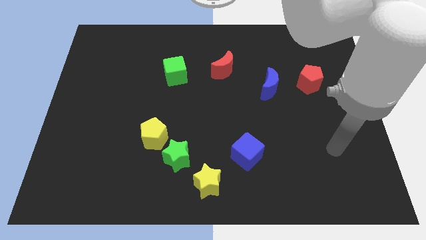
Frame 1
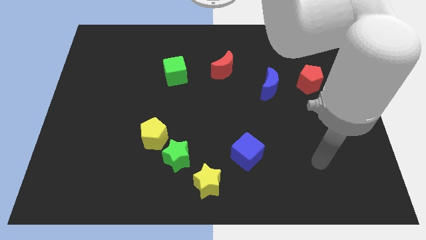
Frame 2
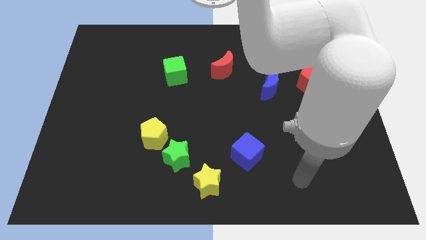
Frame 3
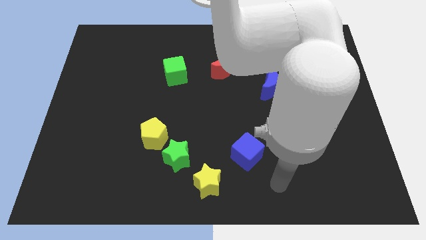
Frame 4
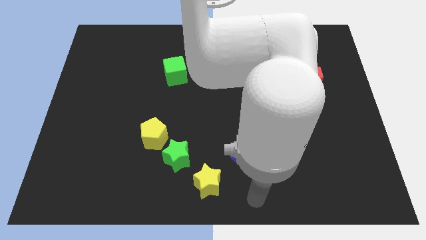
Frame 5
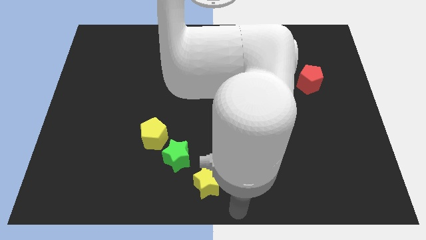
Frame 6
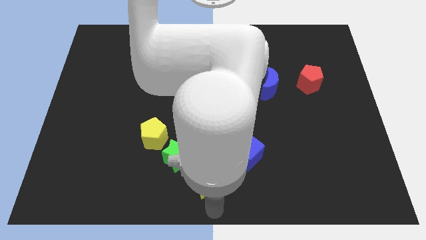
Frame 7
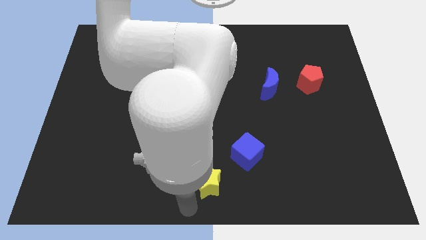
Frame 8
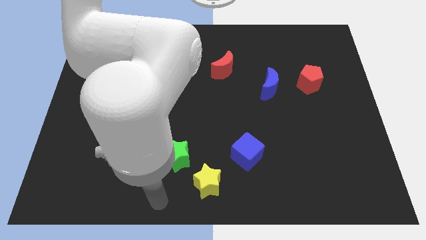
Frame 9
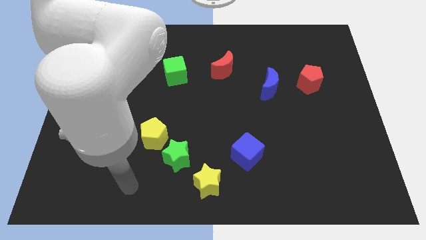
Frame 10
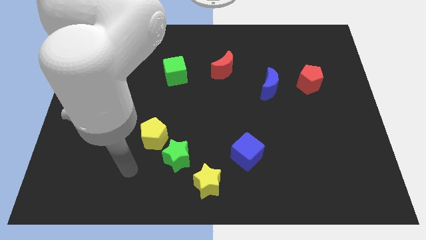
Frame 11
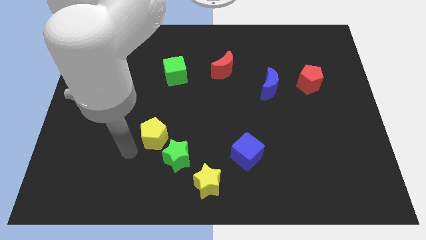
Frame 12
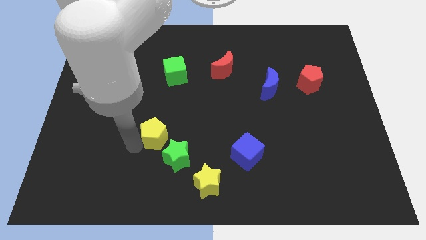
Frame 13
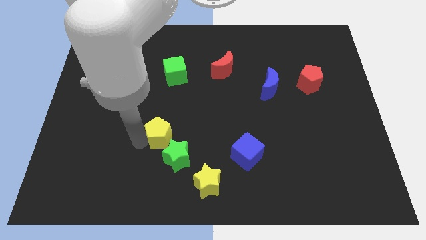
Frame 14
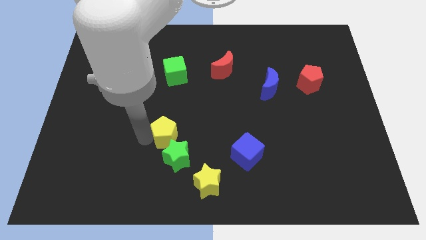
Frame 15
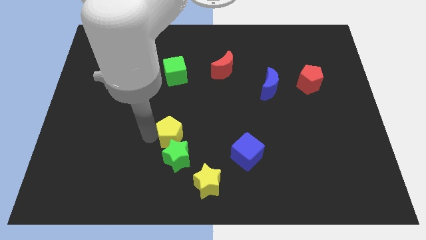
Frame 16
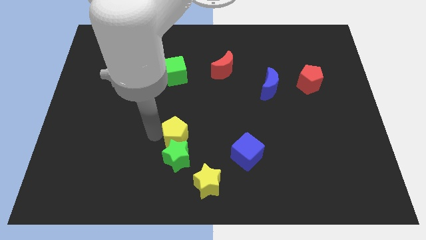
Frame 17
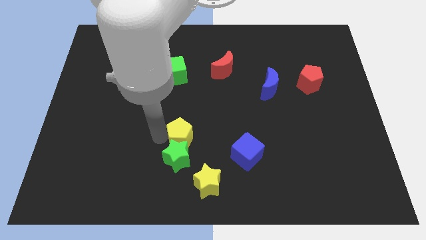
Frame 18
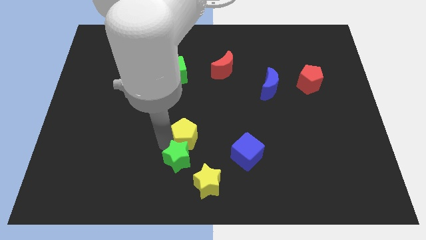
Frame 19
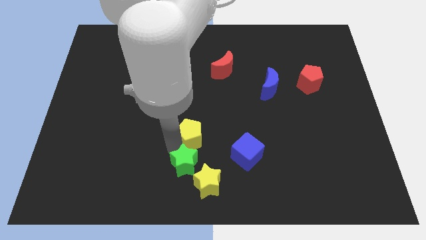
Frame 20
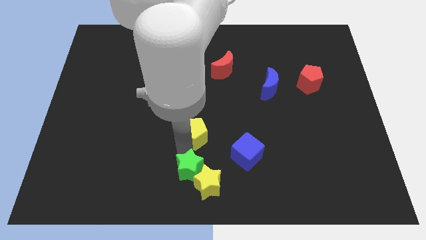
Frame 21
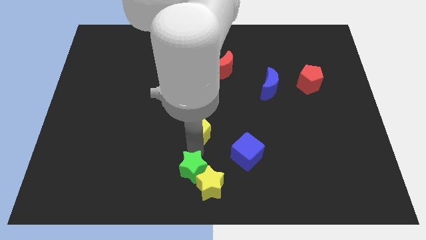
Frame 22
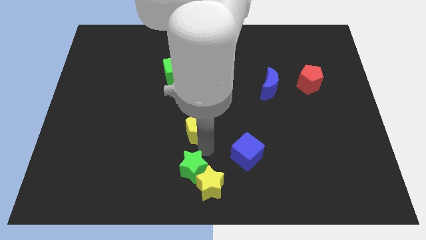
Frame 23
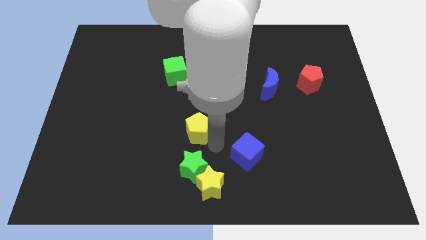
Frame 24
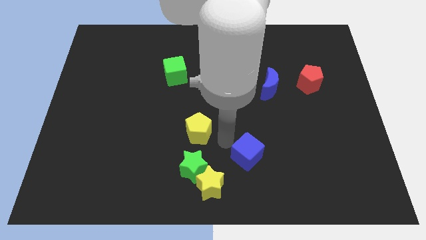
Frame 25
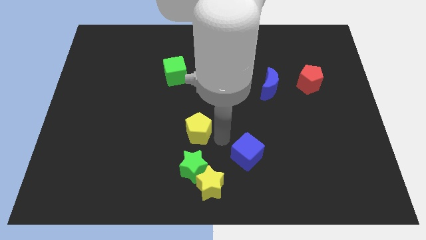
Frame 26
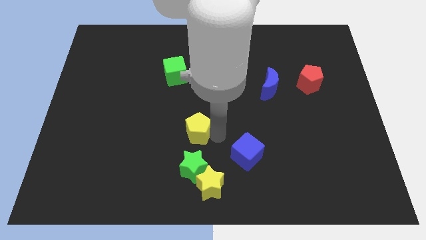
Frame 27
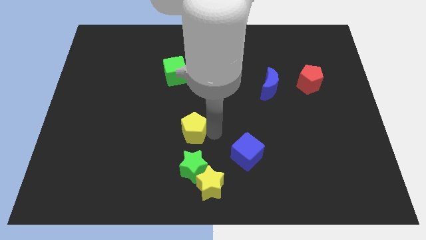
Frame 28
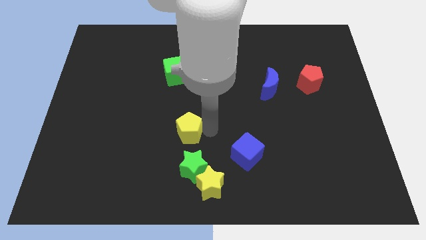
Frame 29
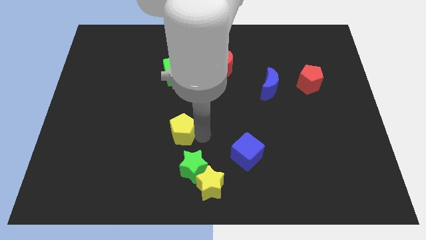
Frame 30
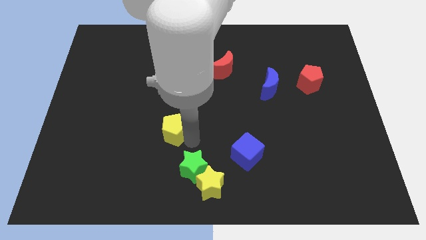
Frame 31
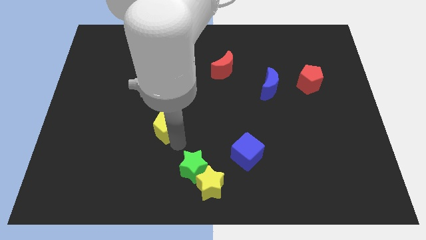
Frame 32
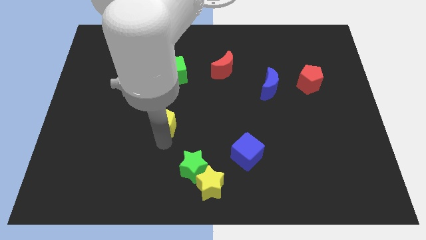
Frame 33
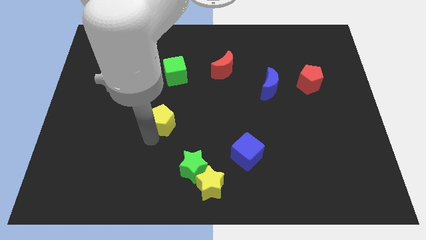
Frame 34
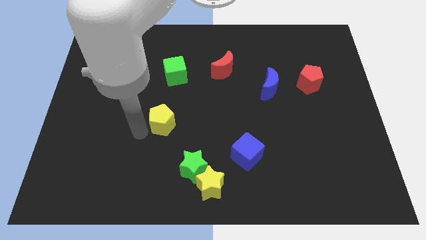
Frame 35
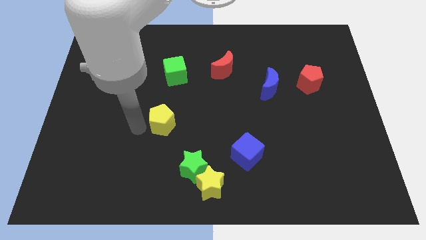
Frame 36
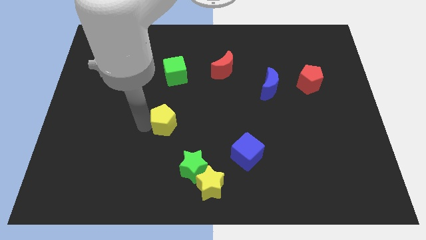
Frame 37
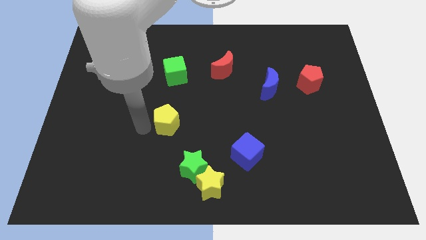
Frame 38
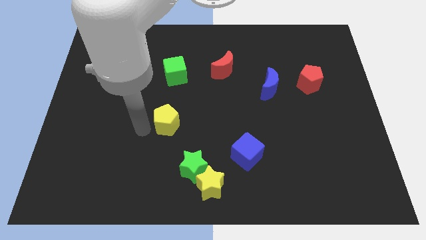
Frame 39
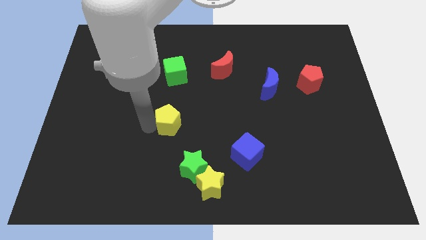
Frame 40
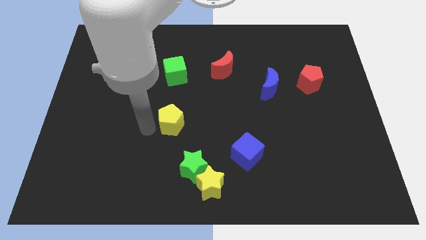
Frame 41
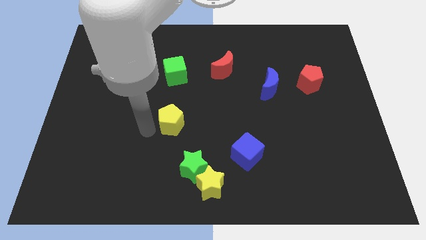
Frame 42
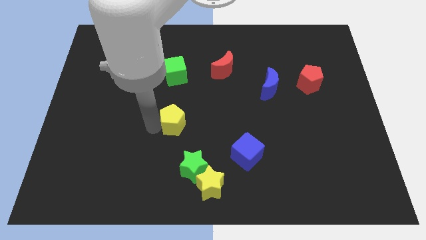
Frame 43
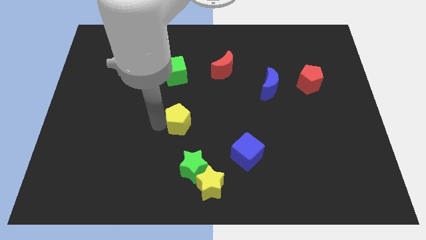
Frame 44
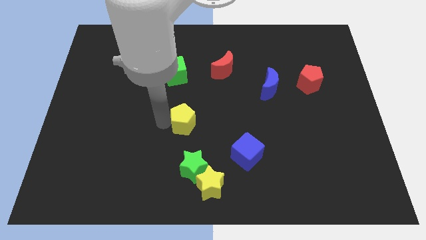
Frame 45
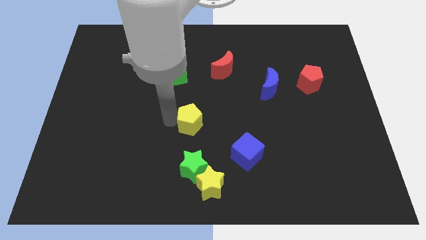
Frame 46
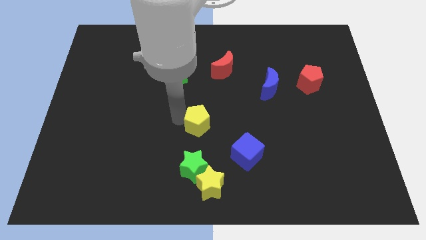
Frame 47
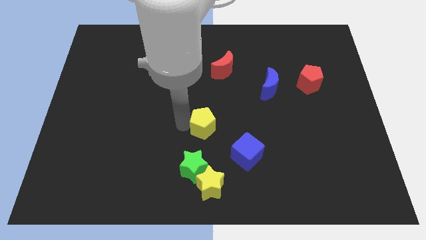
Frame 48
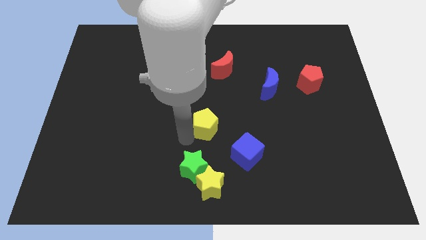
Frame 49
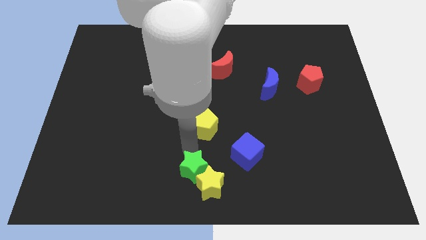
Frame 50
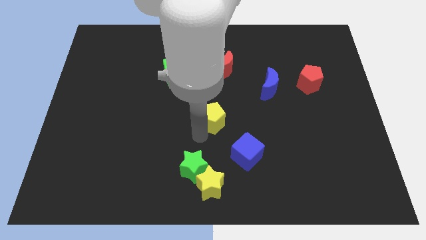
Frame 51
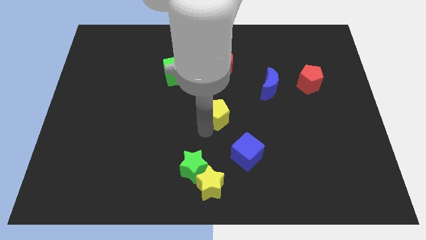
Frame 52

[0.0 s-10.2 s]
move the yellow pentagon to the bottom of the red moon

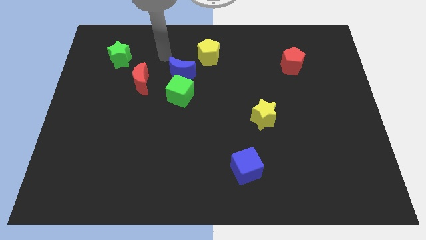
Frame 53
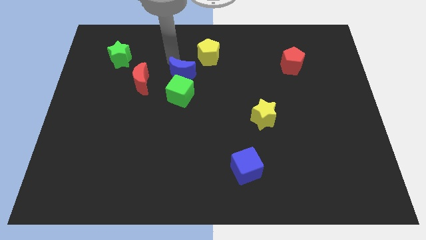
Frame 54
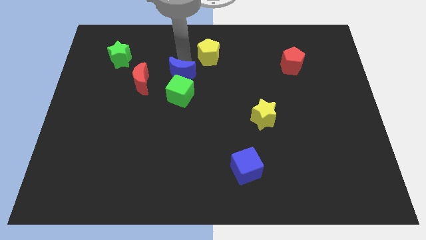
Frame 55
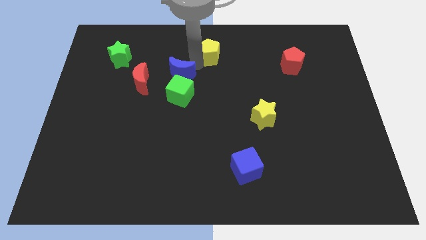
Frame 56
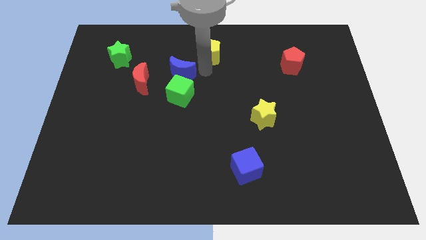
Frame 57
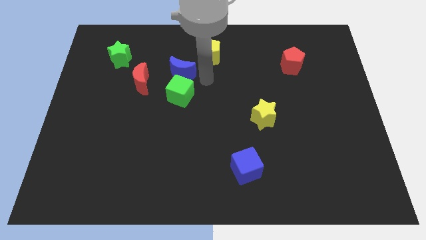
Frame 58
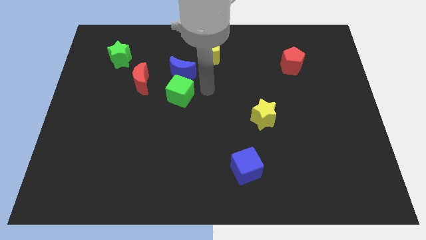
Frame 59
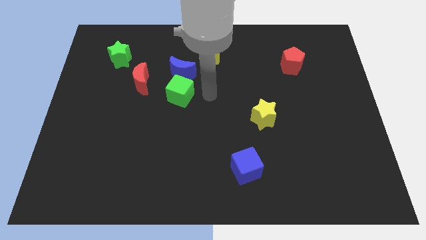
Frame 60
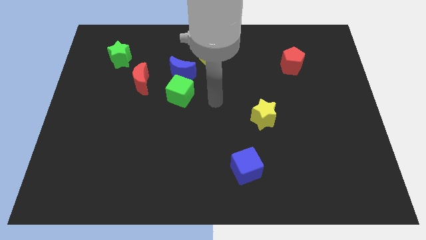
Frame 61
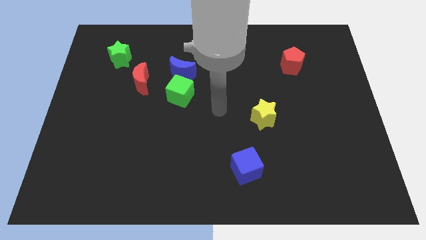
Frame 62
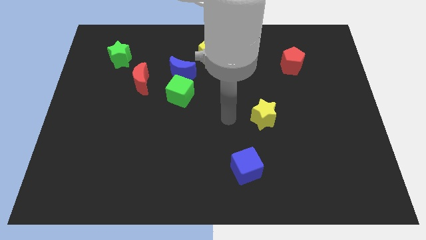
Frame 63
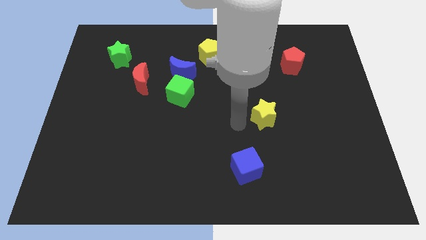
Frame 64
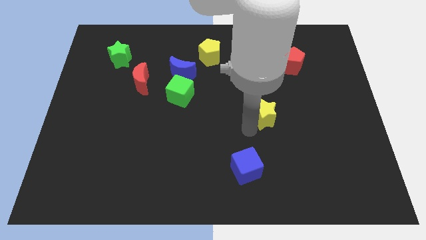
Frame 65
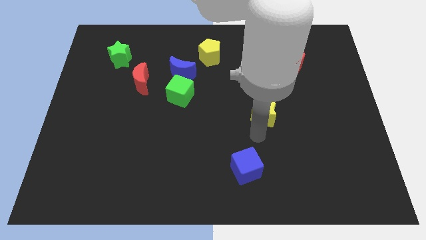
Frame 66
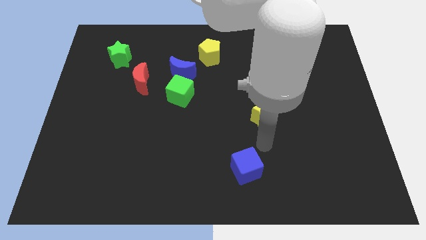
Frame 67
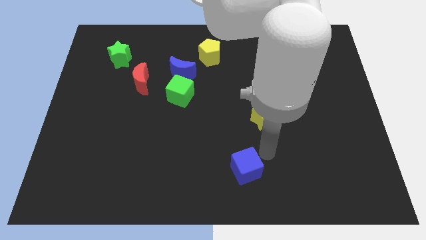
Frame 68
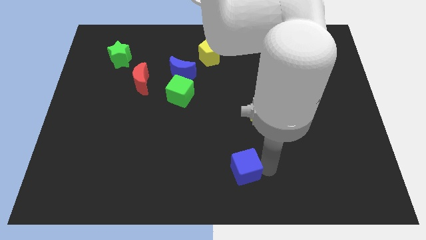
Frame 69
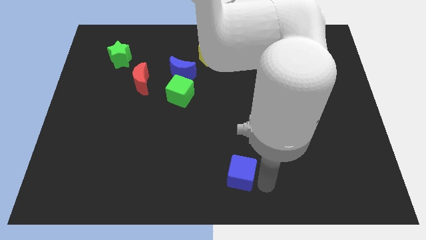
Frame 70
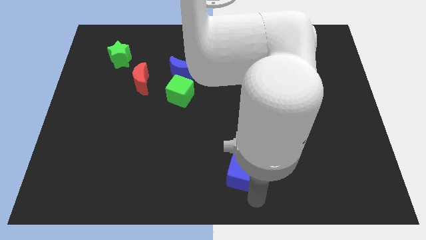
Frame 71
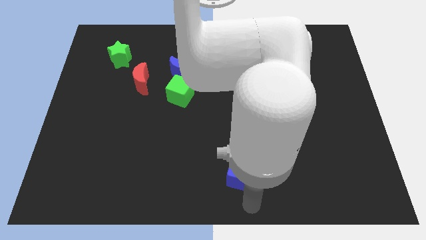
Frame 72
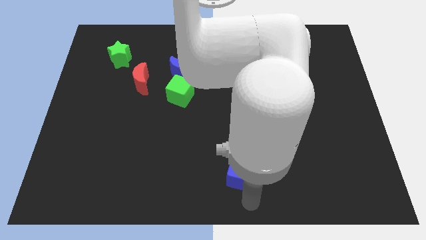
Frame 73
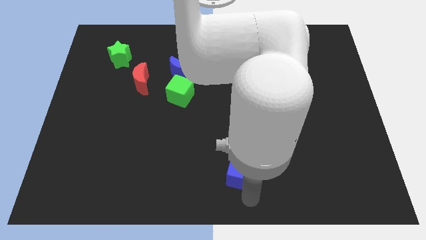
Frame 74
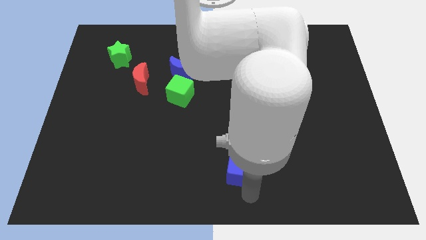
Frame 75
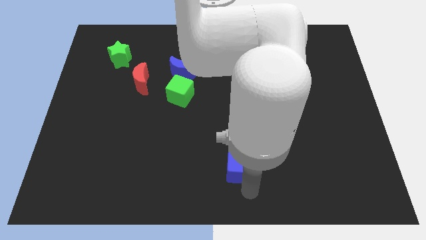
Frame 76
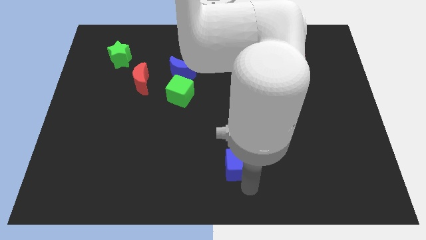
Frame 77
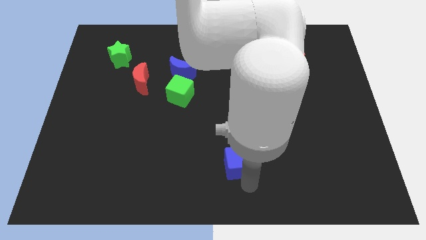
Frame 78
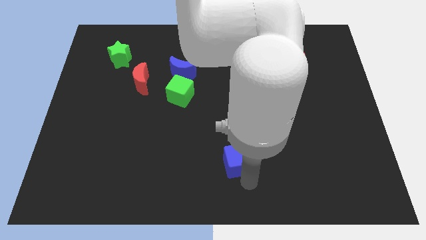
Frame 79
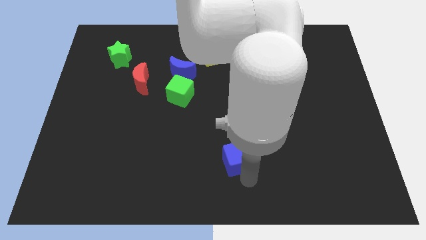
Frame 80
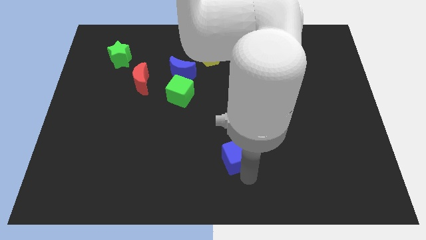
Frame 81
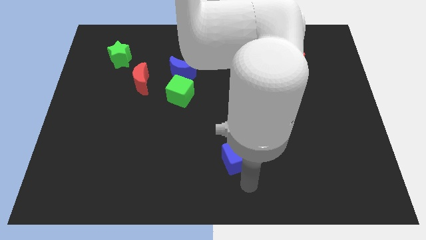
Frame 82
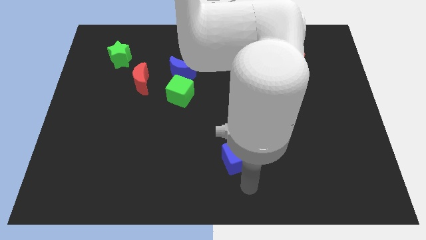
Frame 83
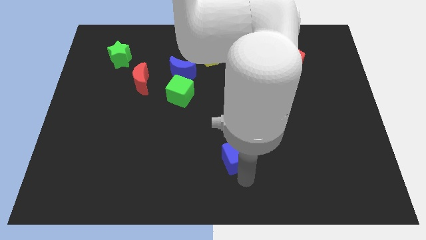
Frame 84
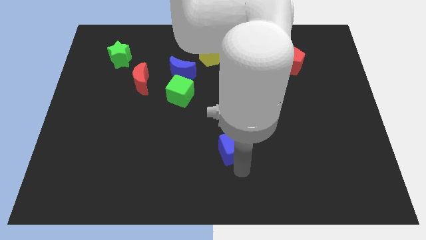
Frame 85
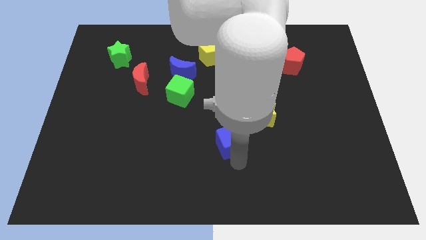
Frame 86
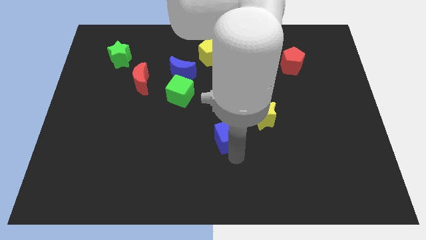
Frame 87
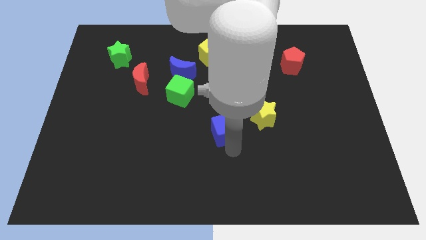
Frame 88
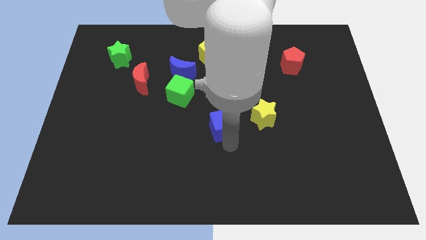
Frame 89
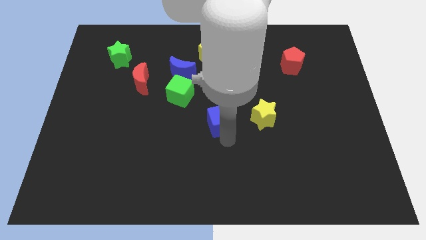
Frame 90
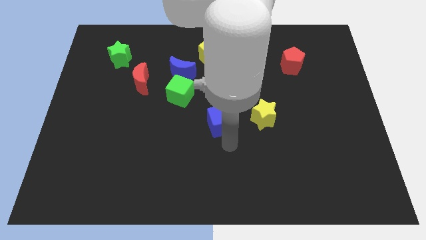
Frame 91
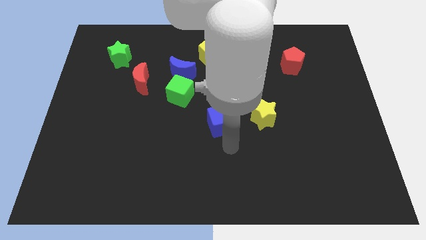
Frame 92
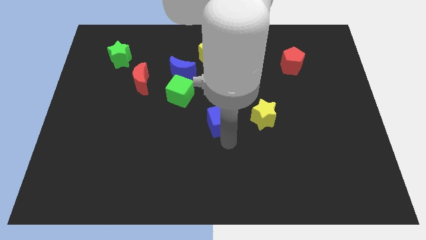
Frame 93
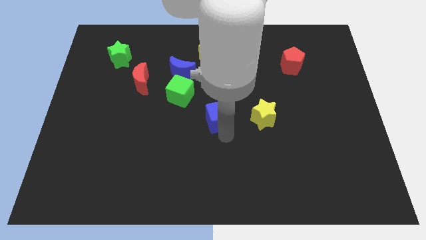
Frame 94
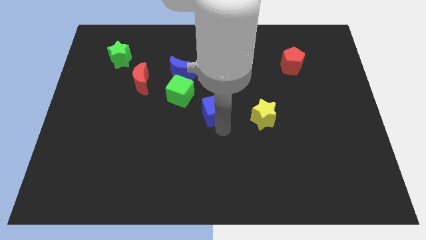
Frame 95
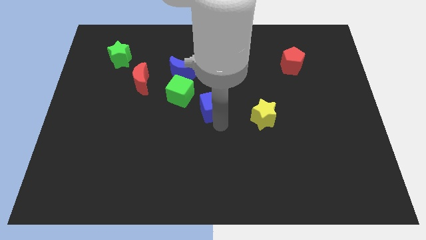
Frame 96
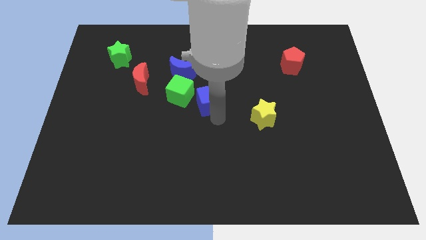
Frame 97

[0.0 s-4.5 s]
slide the blue cube diagonally down and to the right of the blue moon
